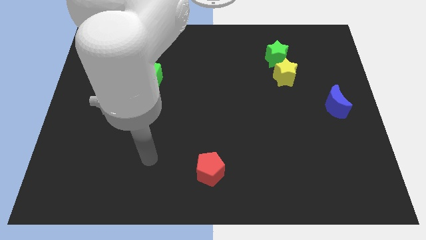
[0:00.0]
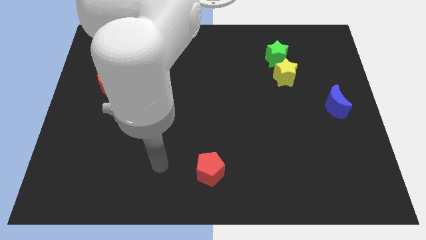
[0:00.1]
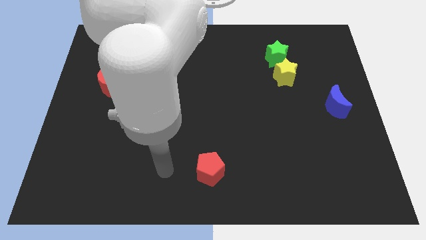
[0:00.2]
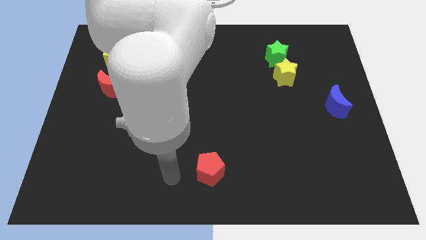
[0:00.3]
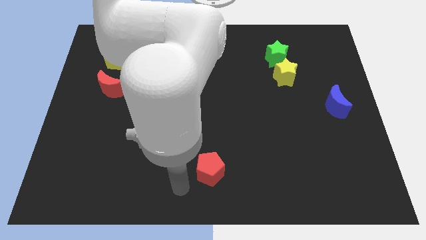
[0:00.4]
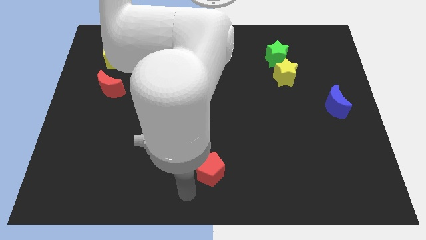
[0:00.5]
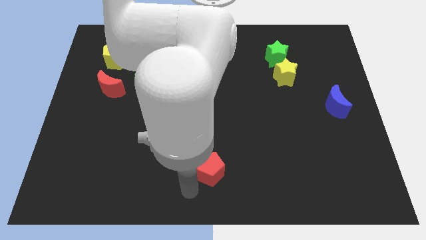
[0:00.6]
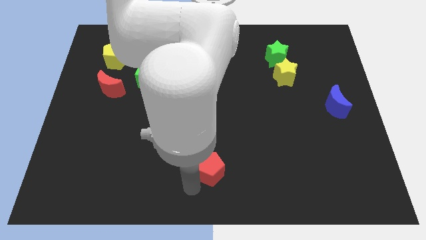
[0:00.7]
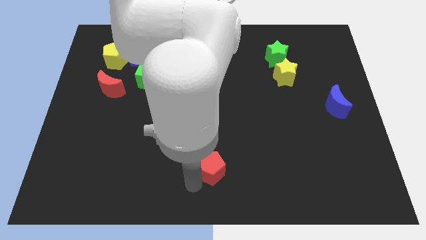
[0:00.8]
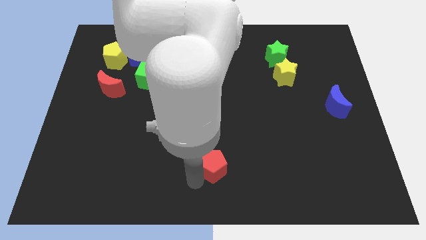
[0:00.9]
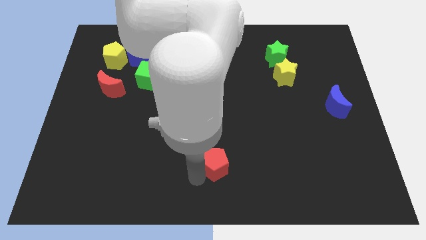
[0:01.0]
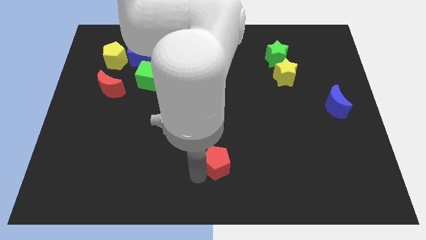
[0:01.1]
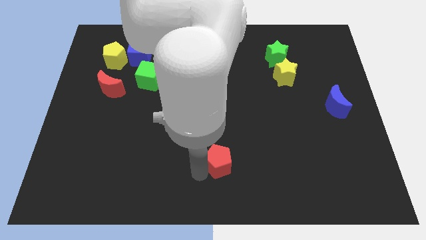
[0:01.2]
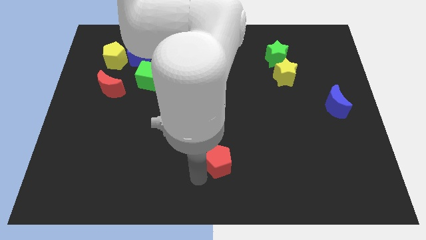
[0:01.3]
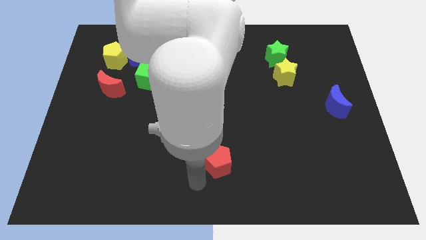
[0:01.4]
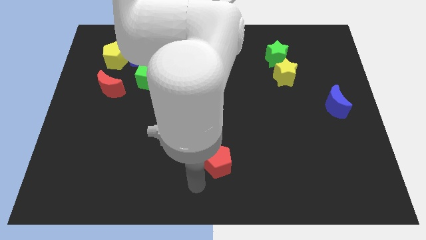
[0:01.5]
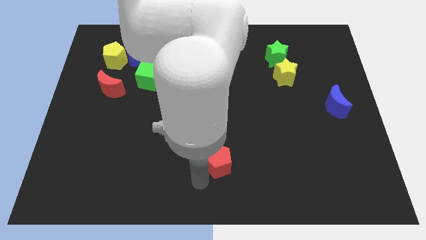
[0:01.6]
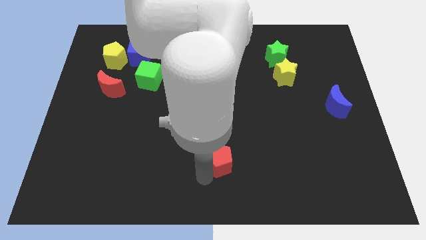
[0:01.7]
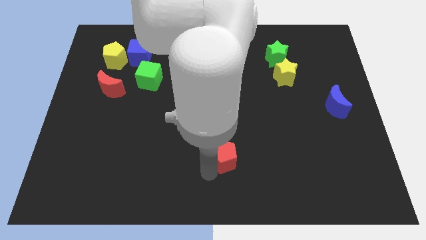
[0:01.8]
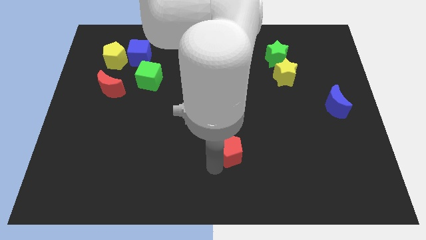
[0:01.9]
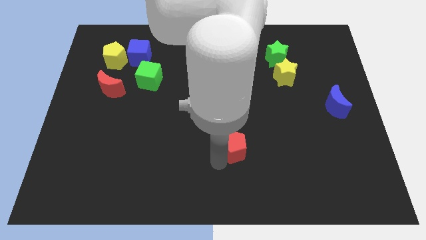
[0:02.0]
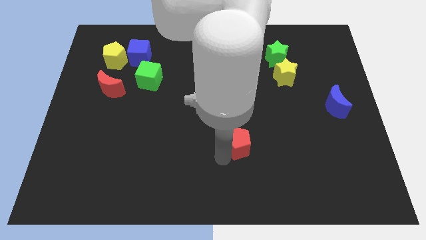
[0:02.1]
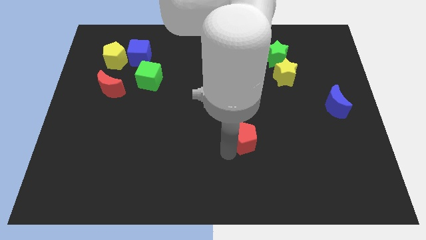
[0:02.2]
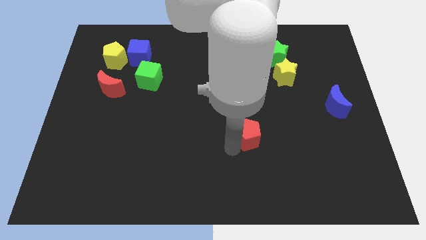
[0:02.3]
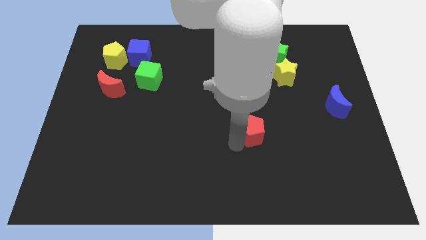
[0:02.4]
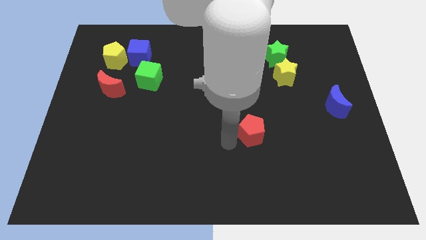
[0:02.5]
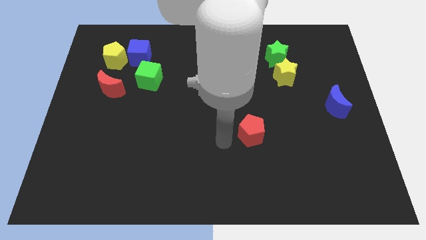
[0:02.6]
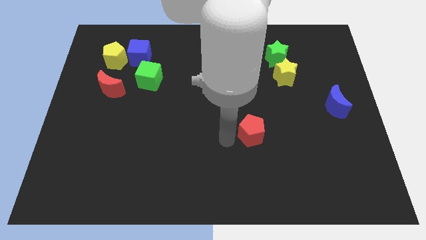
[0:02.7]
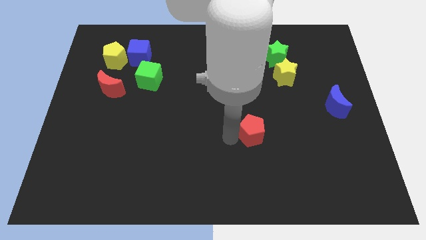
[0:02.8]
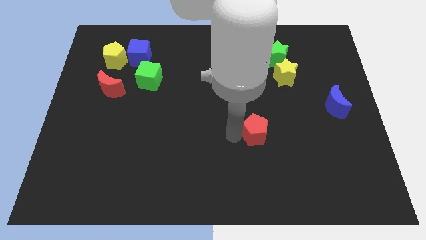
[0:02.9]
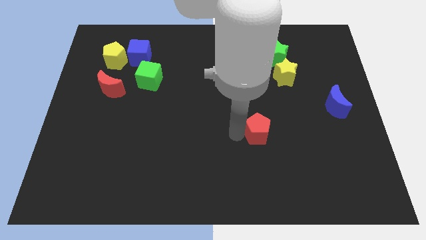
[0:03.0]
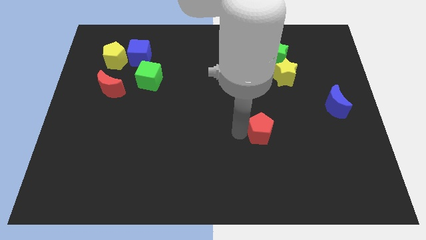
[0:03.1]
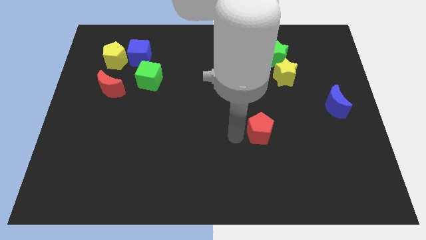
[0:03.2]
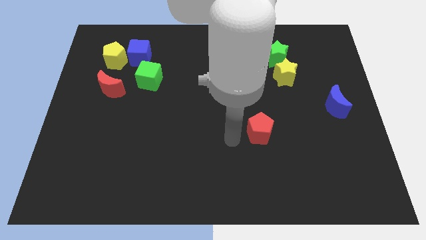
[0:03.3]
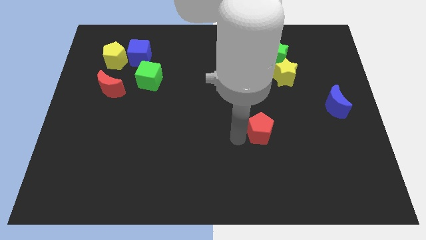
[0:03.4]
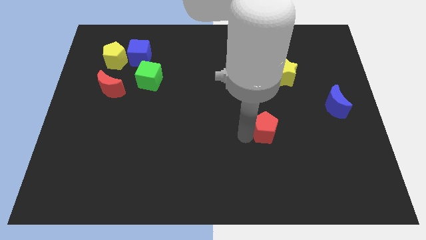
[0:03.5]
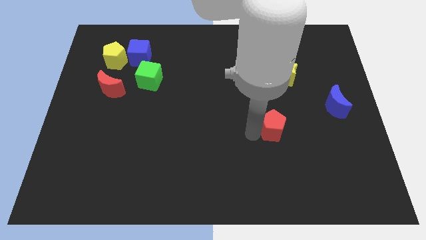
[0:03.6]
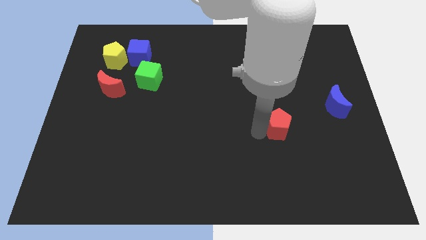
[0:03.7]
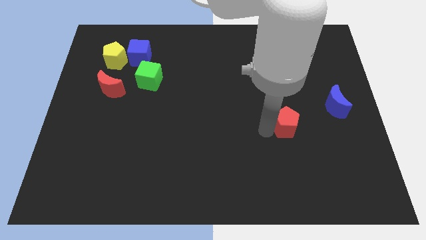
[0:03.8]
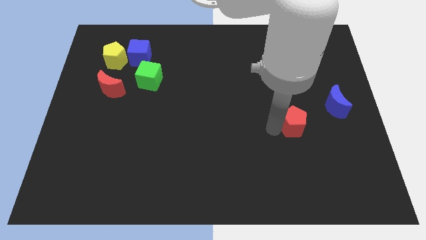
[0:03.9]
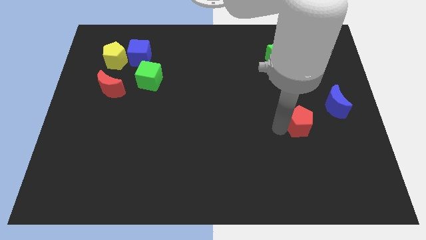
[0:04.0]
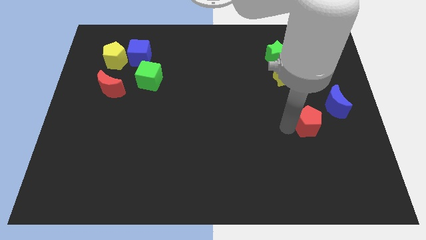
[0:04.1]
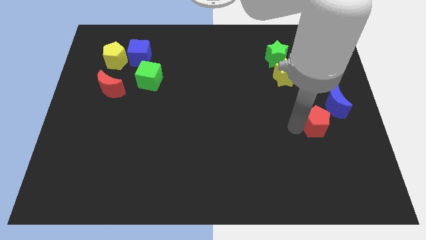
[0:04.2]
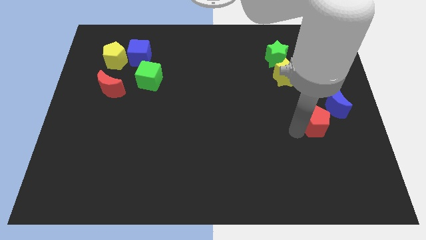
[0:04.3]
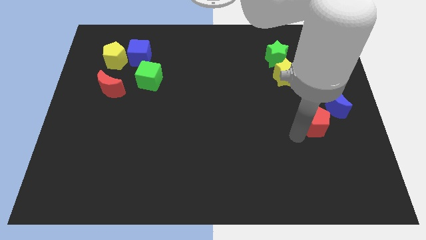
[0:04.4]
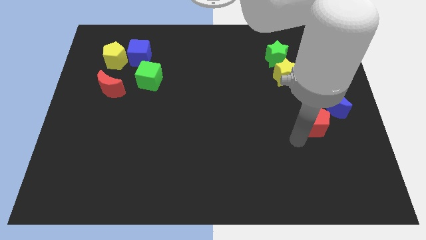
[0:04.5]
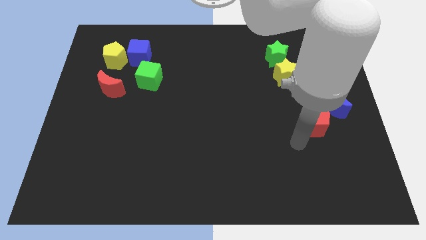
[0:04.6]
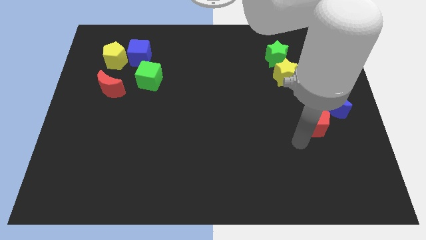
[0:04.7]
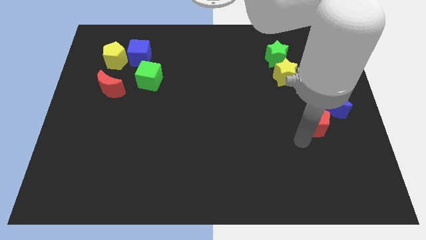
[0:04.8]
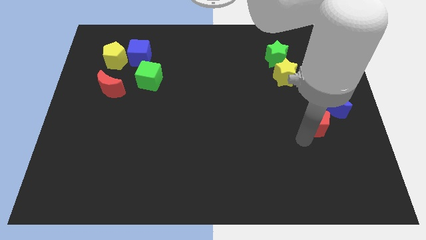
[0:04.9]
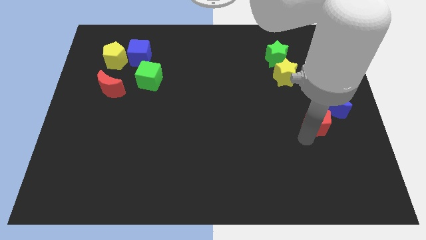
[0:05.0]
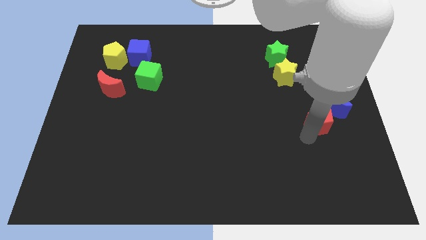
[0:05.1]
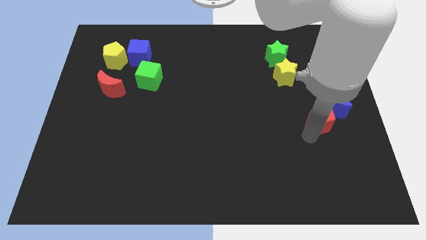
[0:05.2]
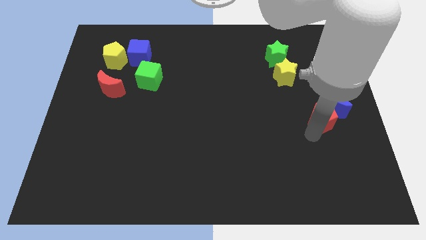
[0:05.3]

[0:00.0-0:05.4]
put the red pentagon towards the blue moon

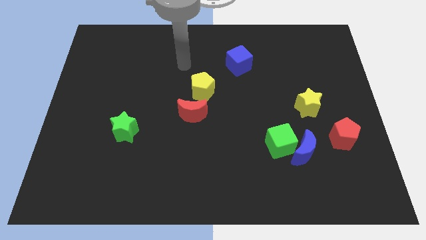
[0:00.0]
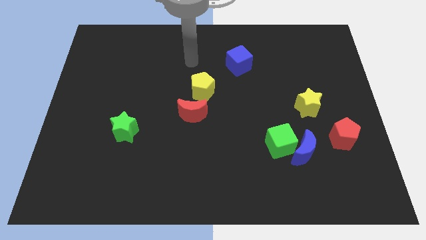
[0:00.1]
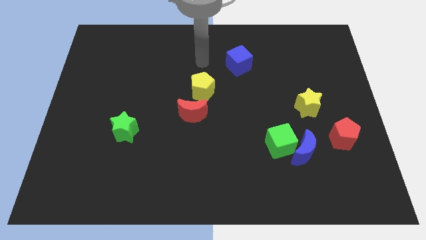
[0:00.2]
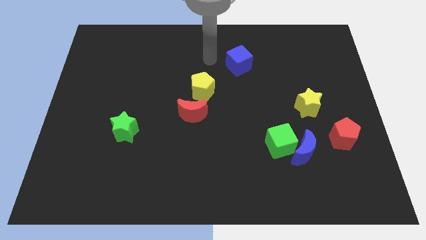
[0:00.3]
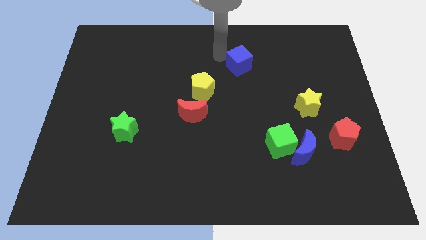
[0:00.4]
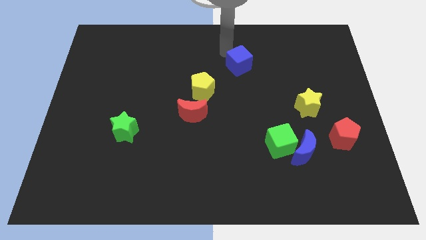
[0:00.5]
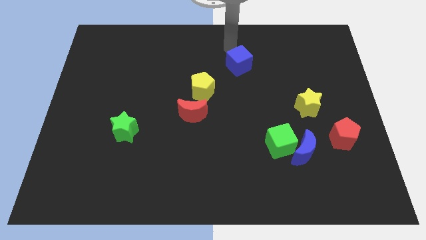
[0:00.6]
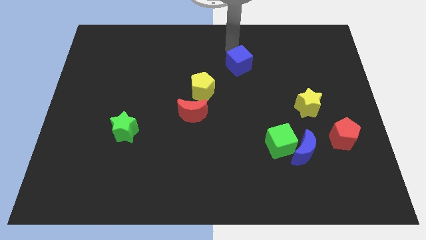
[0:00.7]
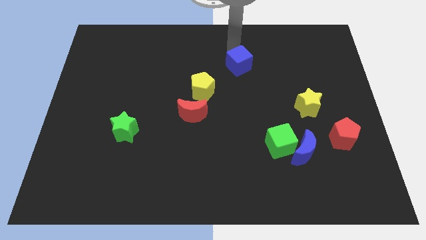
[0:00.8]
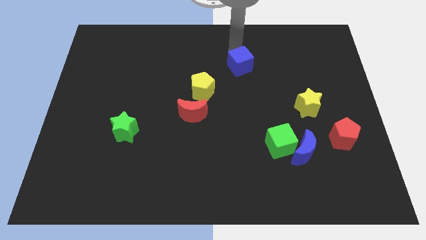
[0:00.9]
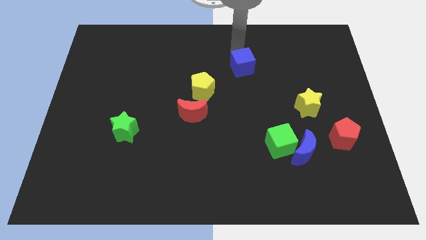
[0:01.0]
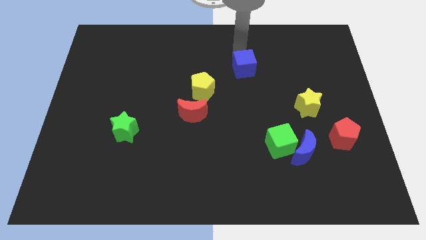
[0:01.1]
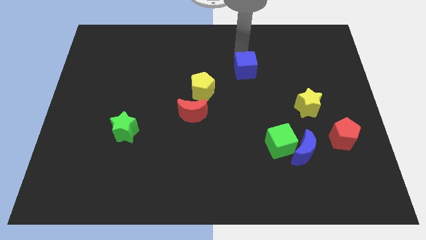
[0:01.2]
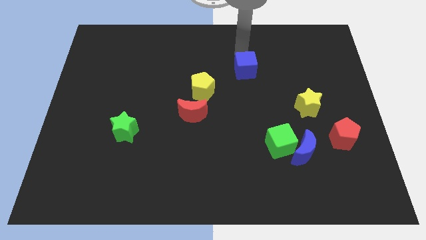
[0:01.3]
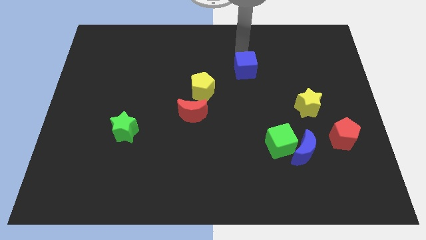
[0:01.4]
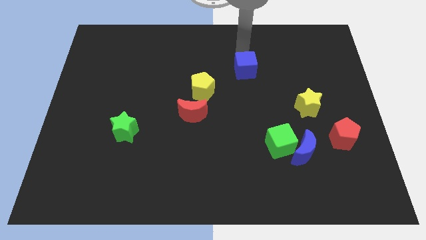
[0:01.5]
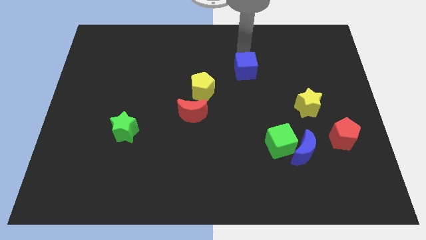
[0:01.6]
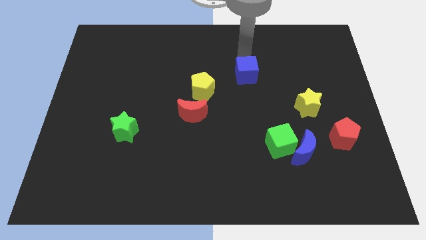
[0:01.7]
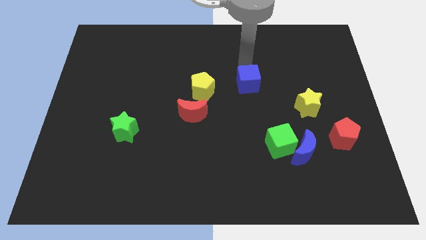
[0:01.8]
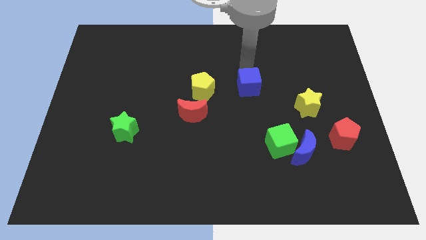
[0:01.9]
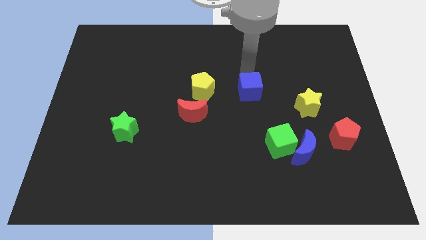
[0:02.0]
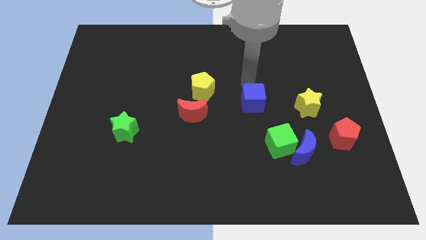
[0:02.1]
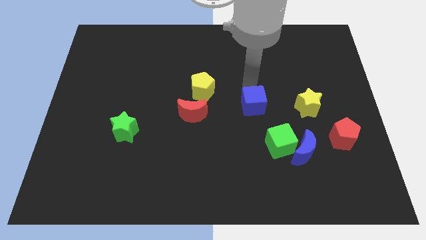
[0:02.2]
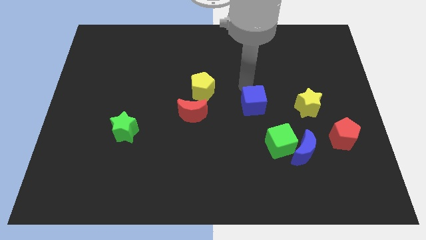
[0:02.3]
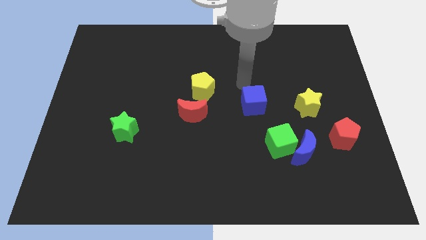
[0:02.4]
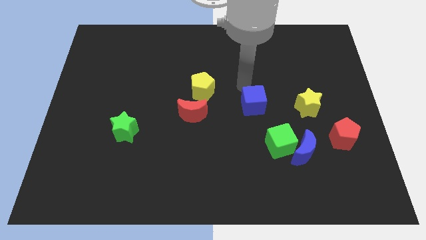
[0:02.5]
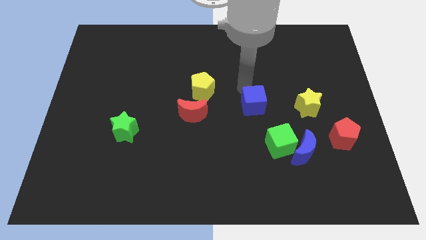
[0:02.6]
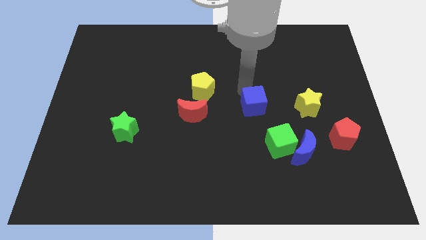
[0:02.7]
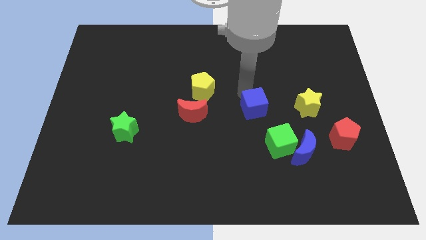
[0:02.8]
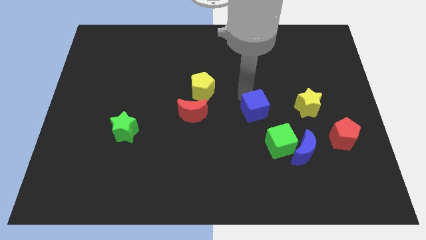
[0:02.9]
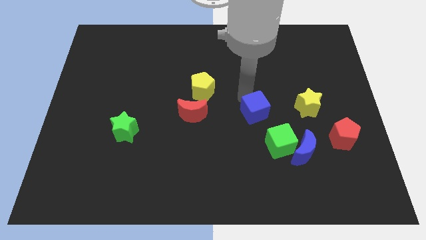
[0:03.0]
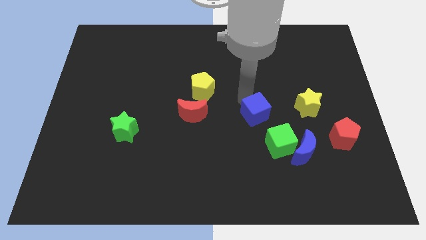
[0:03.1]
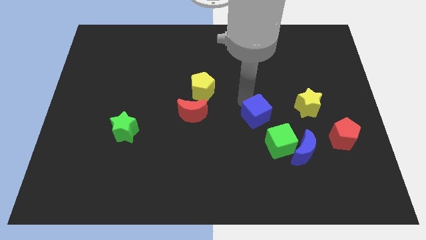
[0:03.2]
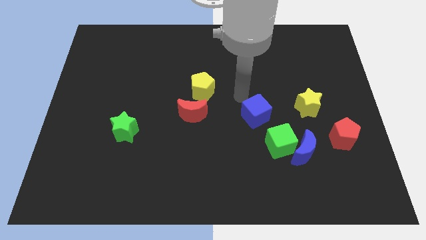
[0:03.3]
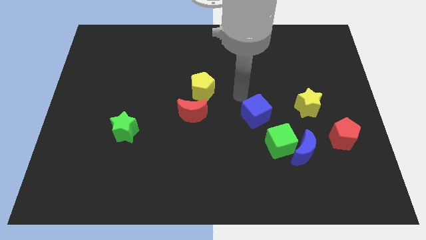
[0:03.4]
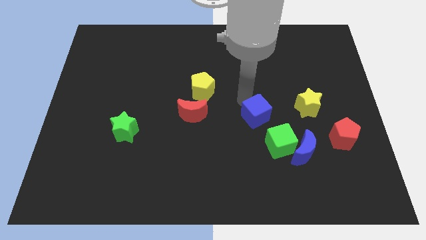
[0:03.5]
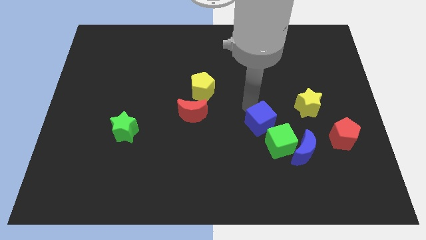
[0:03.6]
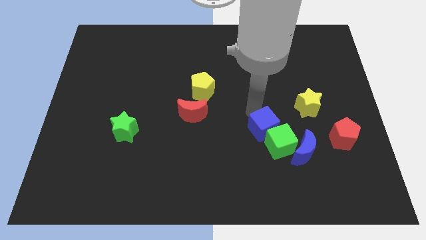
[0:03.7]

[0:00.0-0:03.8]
slide the blue cube next to the green cube
